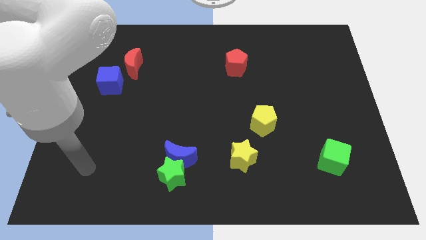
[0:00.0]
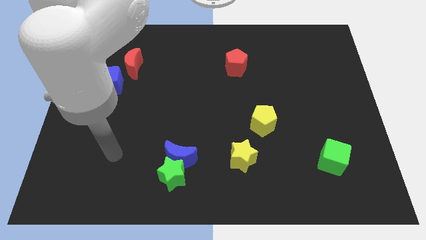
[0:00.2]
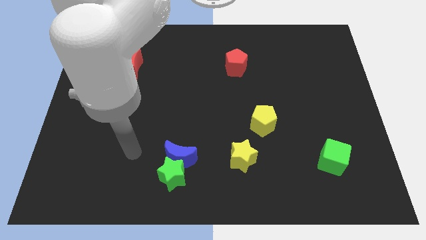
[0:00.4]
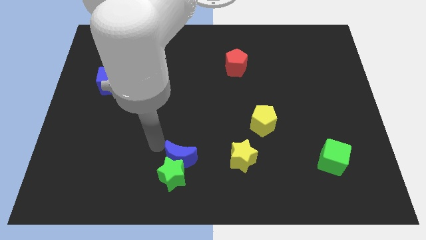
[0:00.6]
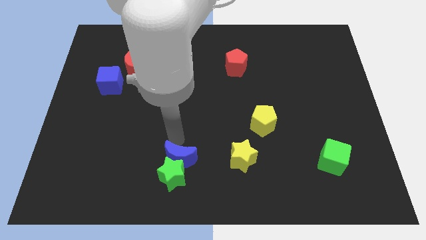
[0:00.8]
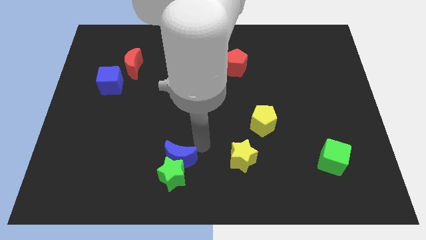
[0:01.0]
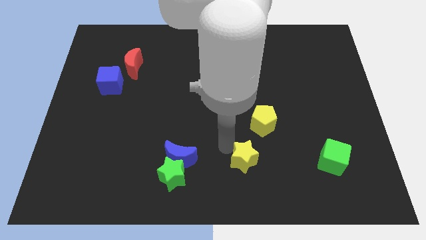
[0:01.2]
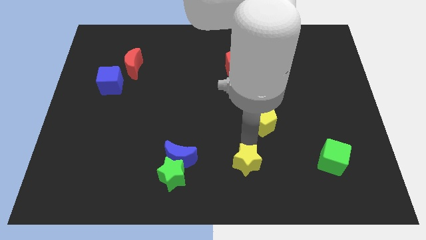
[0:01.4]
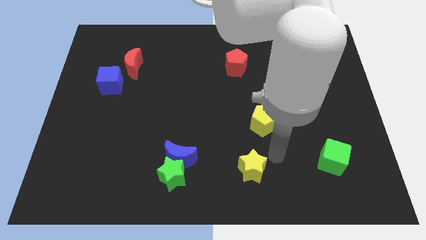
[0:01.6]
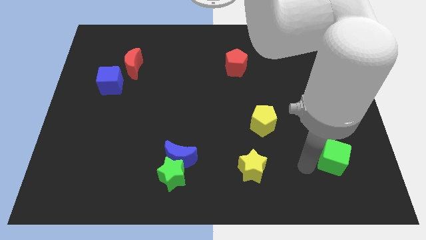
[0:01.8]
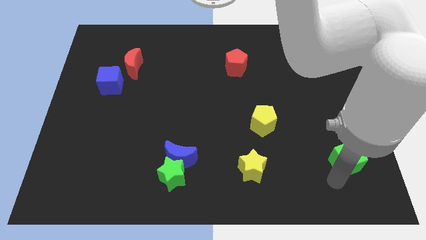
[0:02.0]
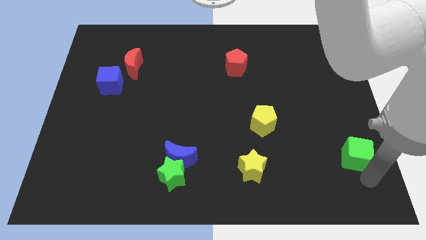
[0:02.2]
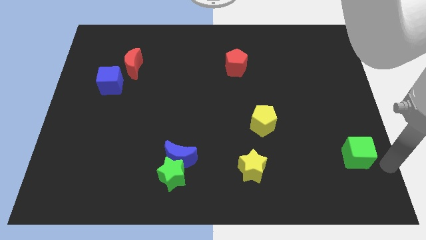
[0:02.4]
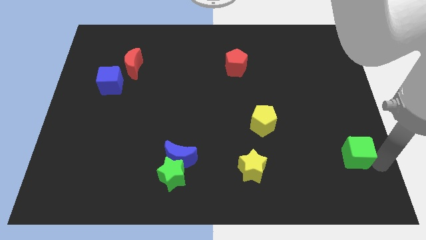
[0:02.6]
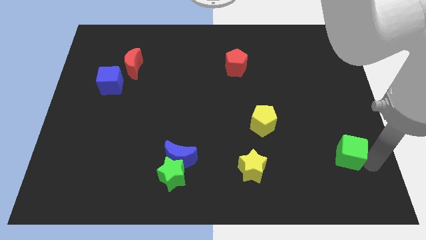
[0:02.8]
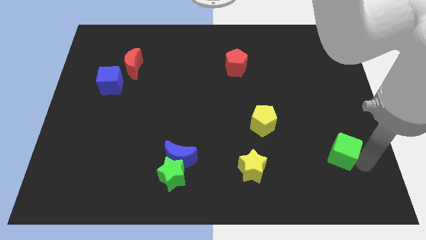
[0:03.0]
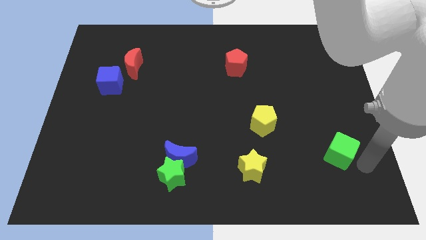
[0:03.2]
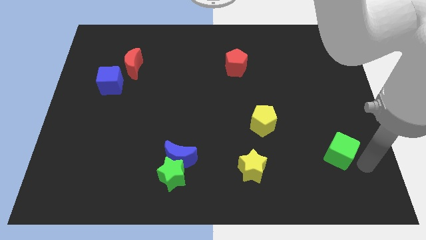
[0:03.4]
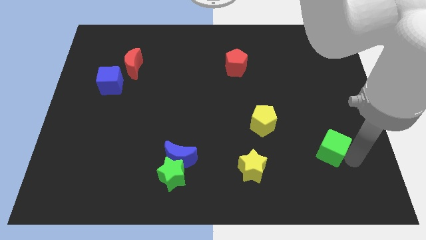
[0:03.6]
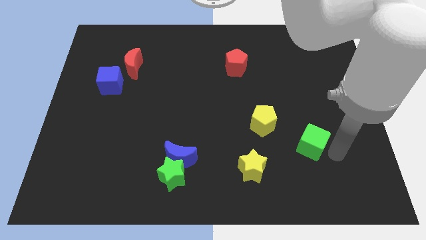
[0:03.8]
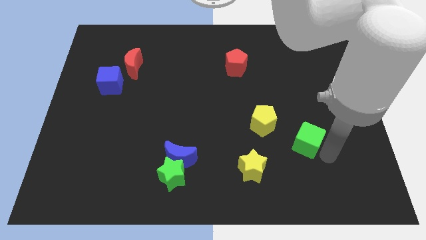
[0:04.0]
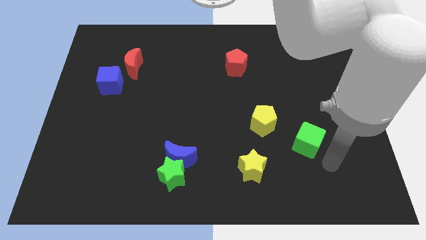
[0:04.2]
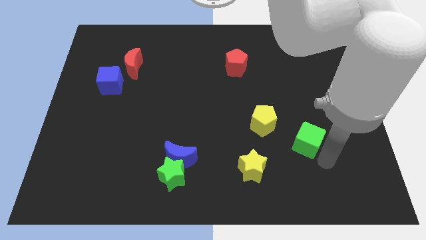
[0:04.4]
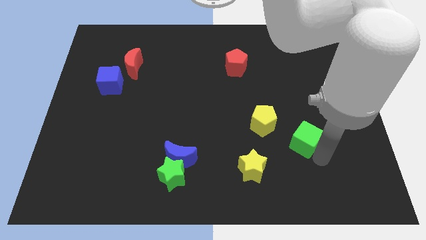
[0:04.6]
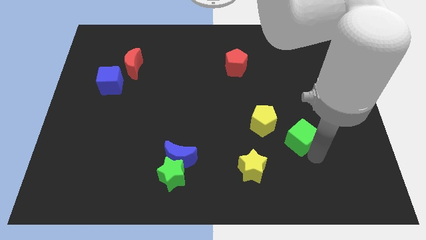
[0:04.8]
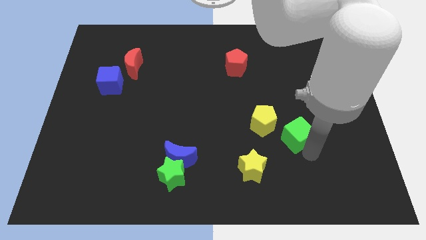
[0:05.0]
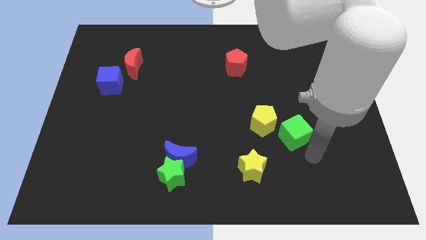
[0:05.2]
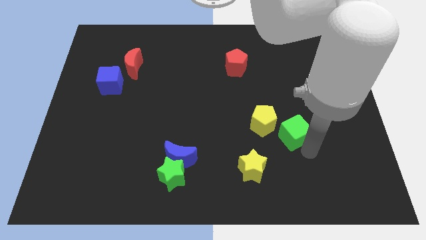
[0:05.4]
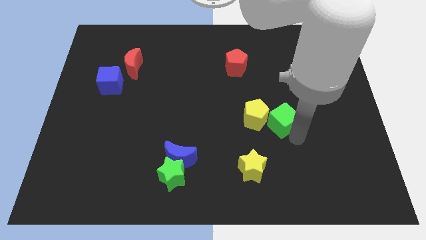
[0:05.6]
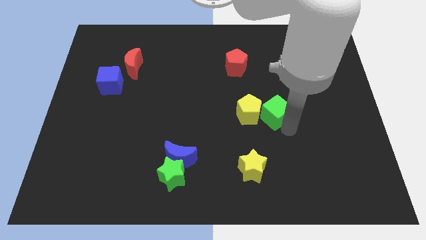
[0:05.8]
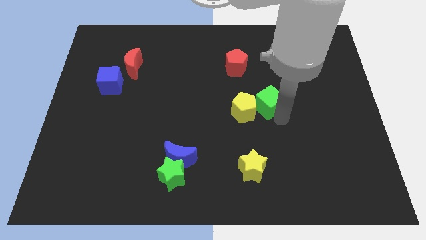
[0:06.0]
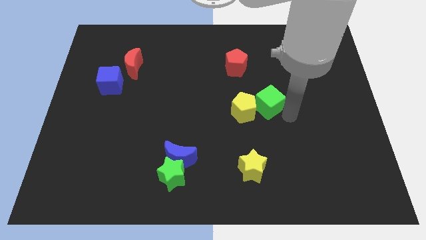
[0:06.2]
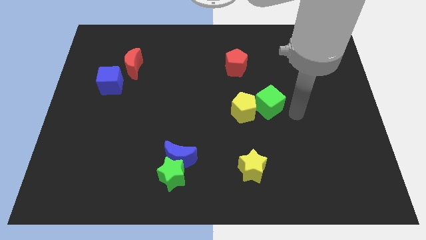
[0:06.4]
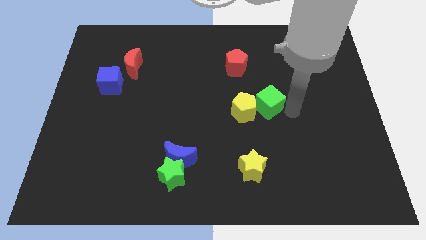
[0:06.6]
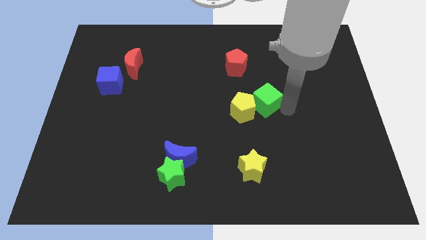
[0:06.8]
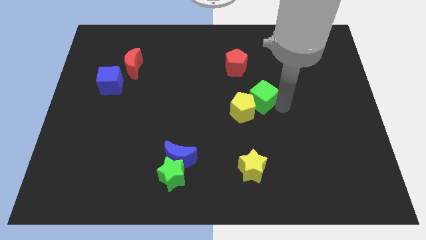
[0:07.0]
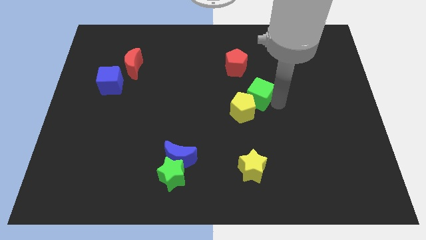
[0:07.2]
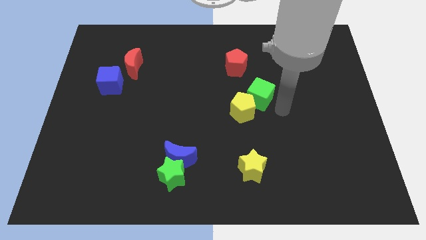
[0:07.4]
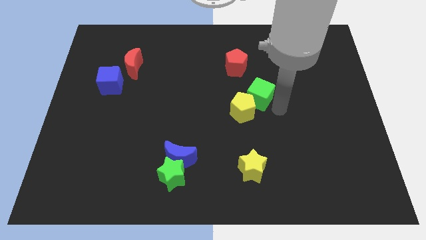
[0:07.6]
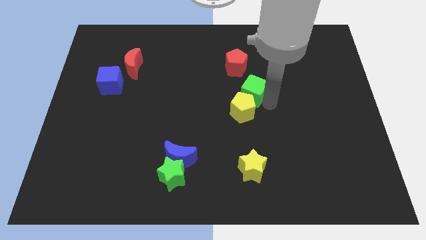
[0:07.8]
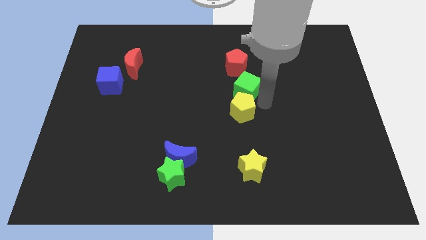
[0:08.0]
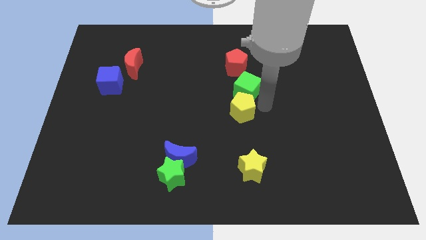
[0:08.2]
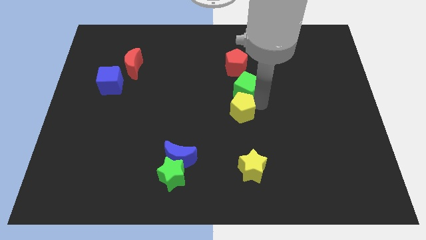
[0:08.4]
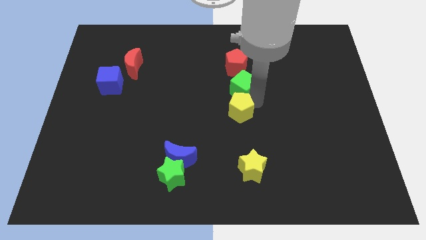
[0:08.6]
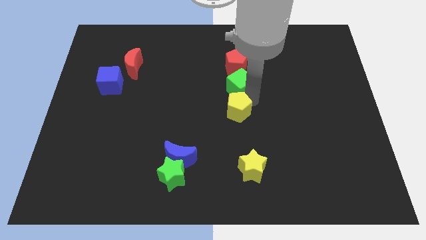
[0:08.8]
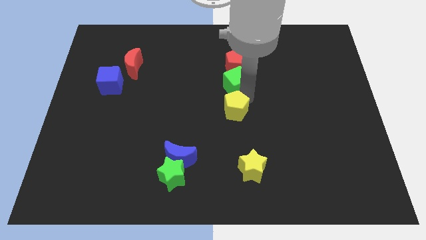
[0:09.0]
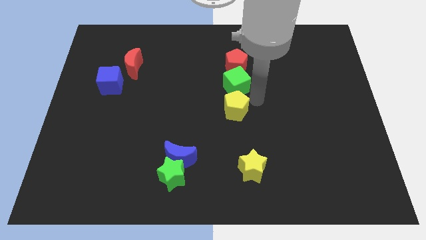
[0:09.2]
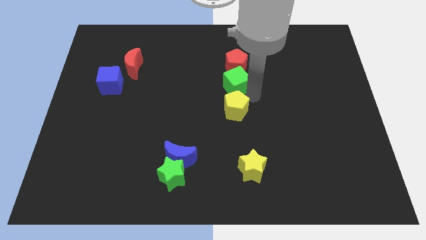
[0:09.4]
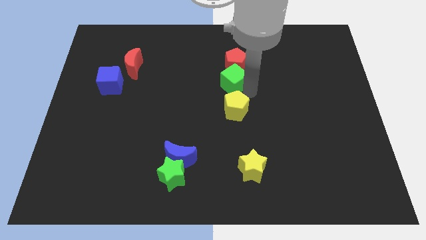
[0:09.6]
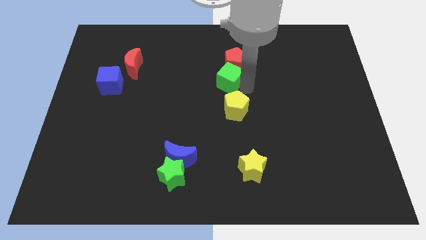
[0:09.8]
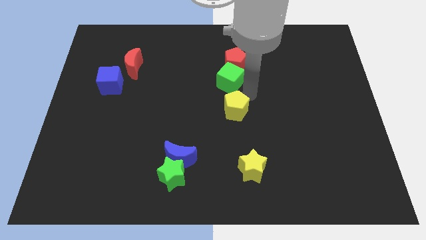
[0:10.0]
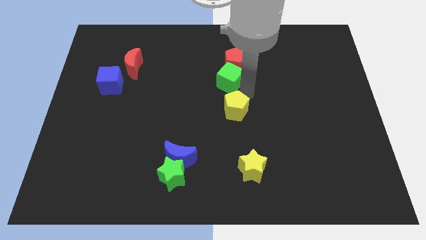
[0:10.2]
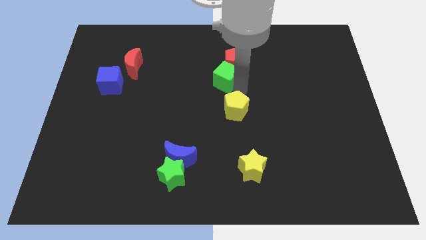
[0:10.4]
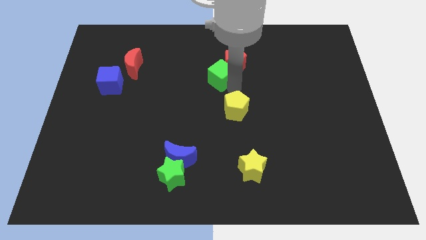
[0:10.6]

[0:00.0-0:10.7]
slide the green cube to the left of the red pentagon

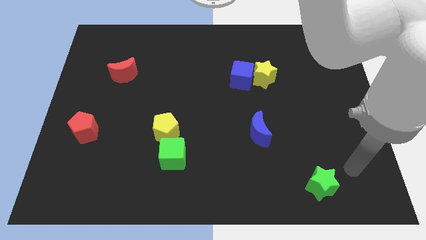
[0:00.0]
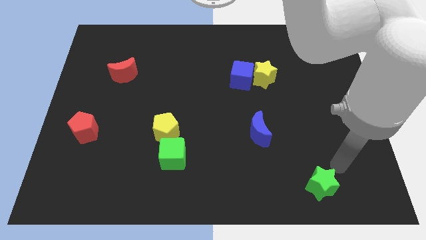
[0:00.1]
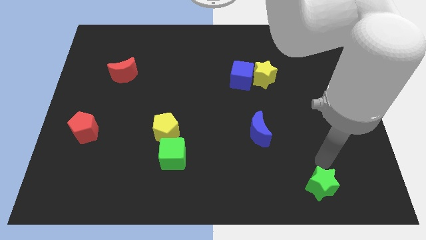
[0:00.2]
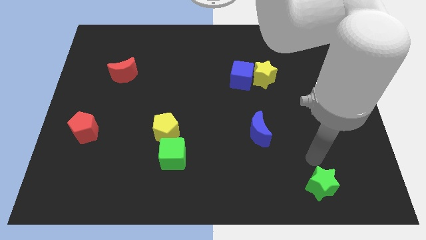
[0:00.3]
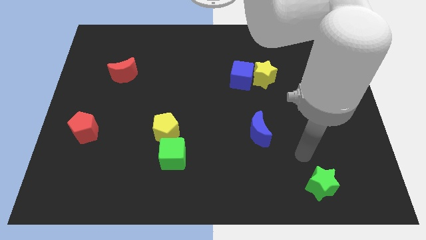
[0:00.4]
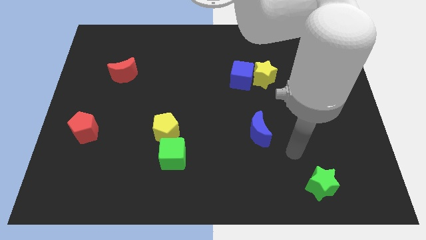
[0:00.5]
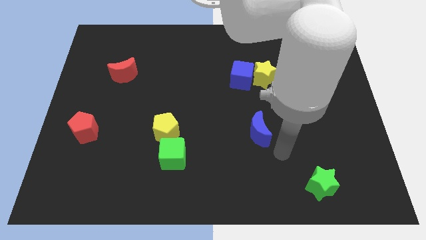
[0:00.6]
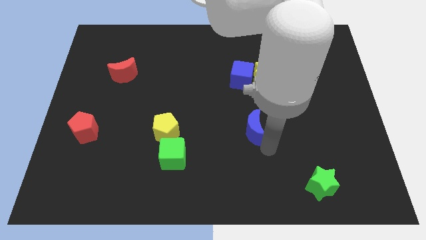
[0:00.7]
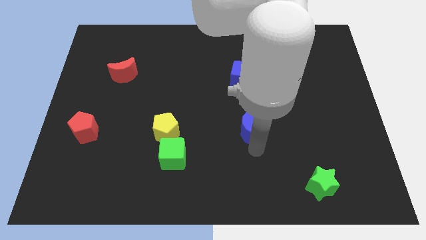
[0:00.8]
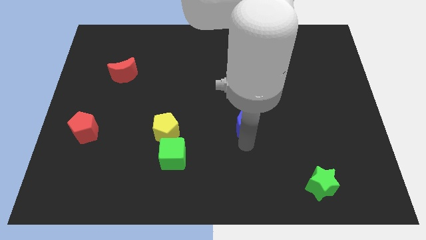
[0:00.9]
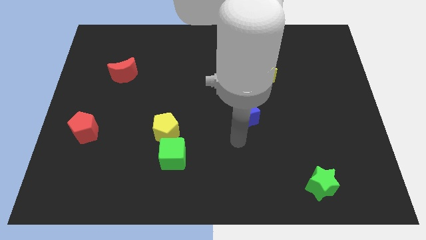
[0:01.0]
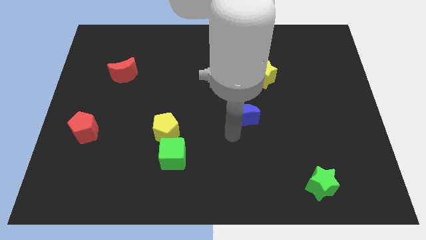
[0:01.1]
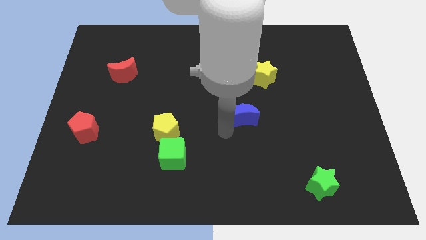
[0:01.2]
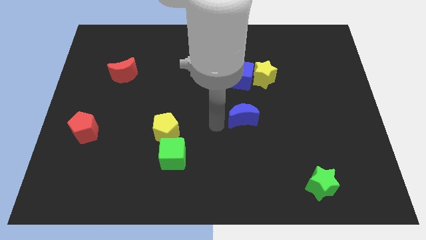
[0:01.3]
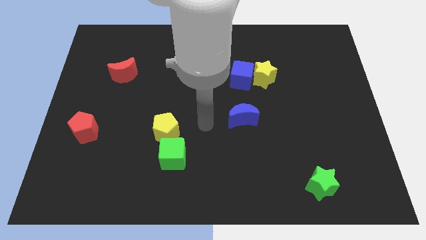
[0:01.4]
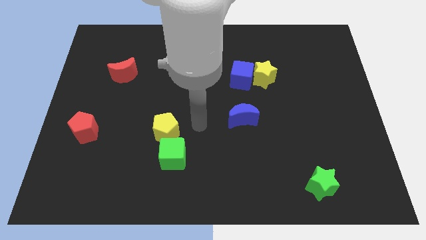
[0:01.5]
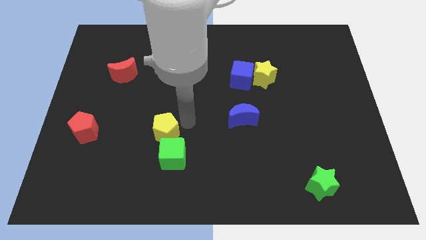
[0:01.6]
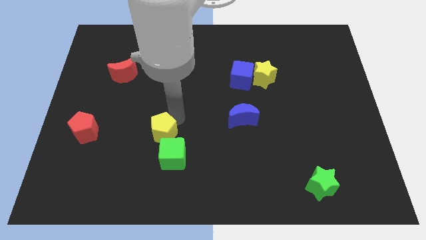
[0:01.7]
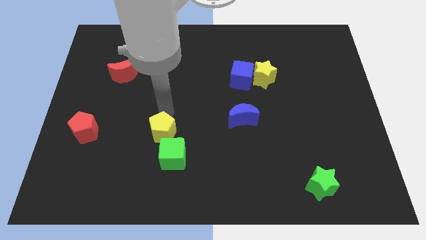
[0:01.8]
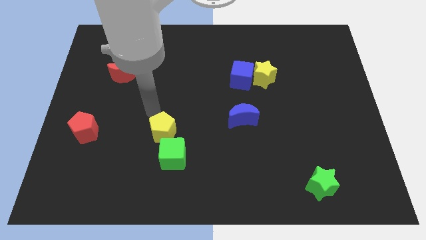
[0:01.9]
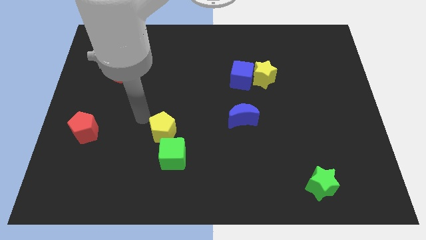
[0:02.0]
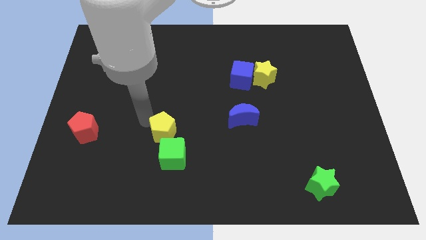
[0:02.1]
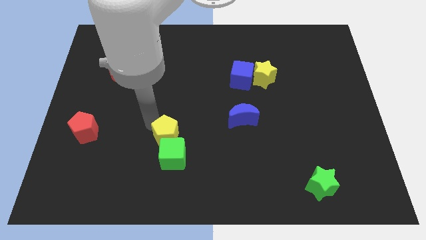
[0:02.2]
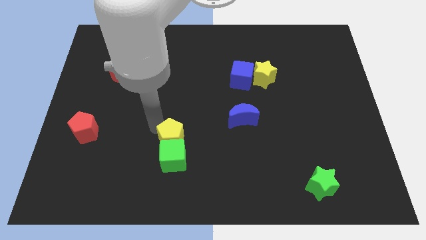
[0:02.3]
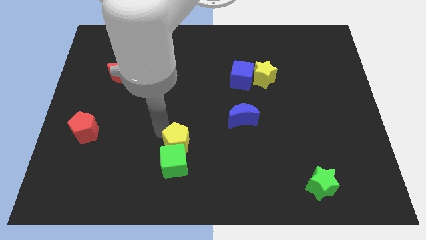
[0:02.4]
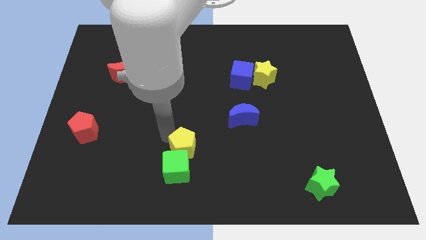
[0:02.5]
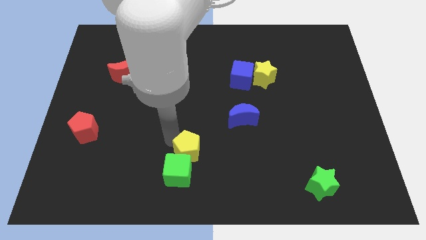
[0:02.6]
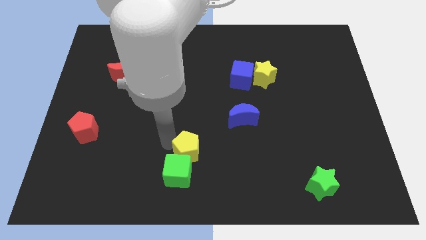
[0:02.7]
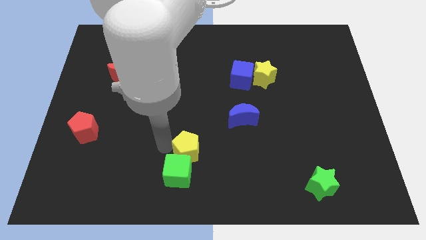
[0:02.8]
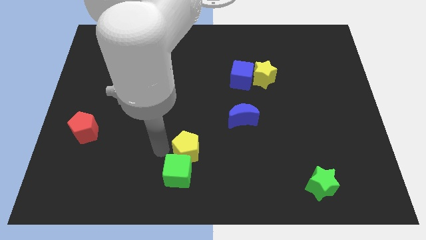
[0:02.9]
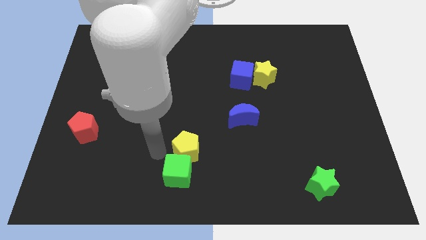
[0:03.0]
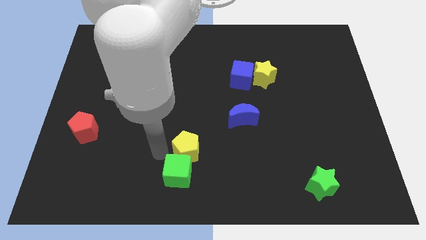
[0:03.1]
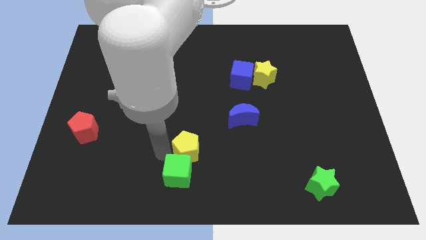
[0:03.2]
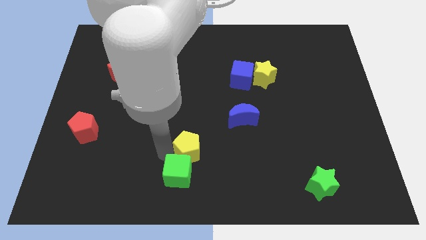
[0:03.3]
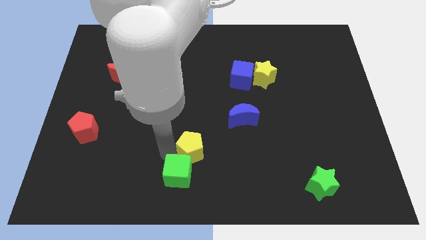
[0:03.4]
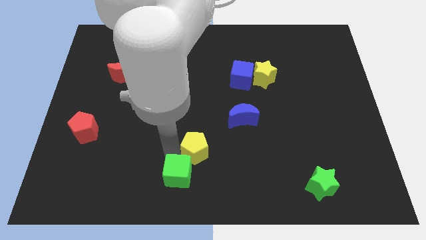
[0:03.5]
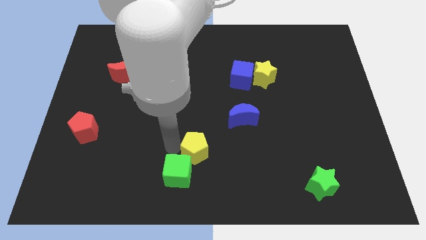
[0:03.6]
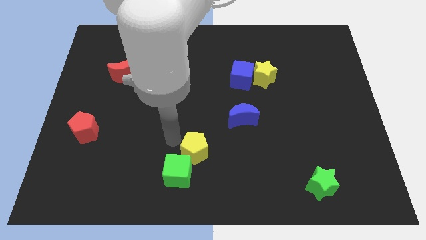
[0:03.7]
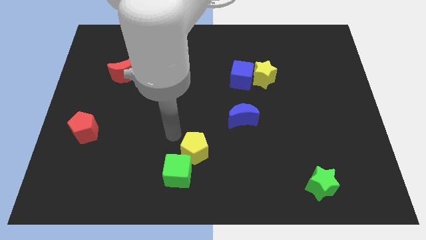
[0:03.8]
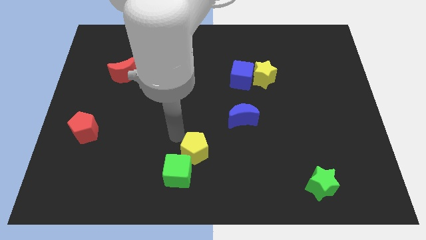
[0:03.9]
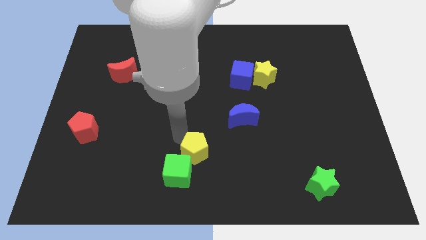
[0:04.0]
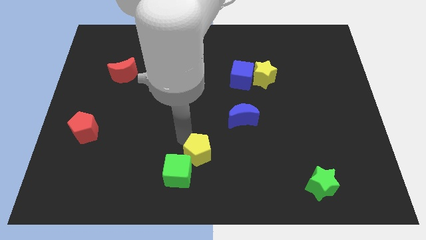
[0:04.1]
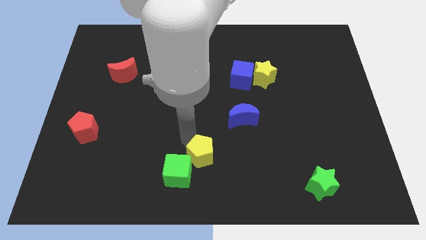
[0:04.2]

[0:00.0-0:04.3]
put the yellow pentagon just right of the green cube
